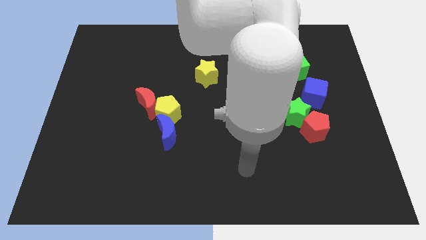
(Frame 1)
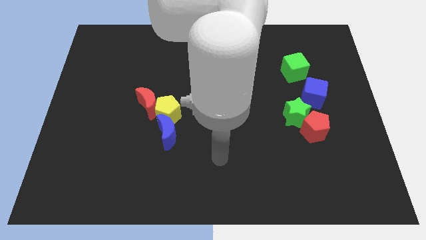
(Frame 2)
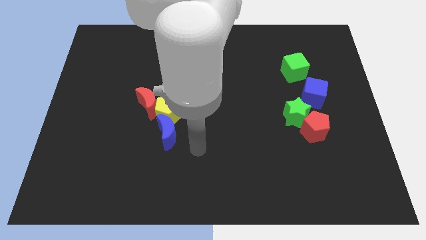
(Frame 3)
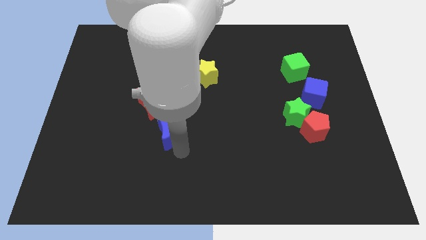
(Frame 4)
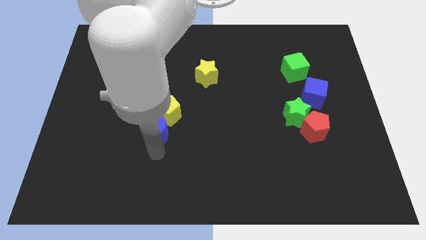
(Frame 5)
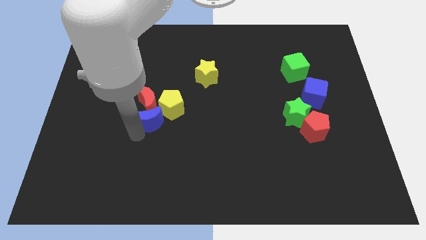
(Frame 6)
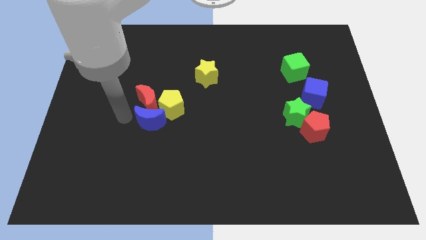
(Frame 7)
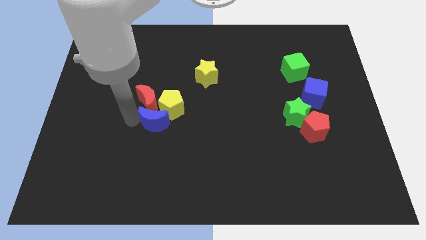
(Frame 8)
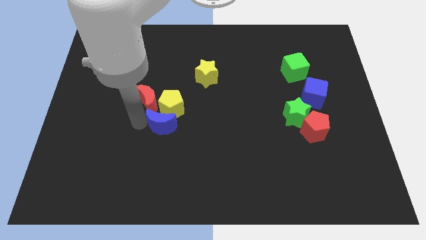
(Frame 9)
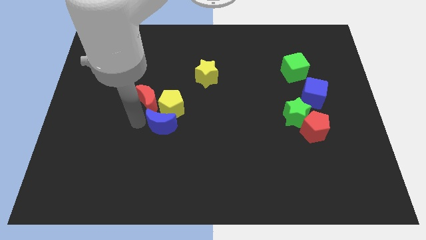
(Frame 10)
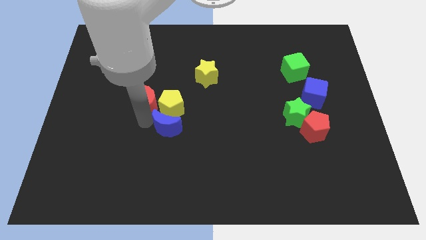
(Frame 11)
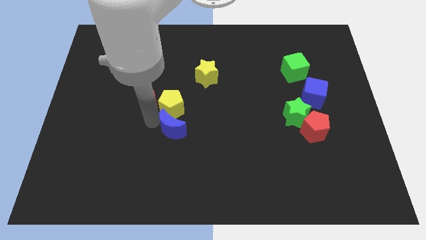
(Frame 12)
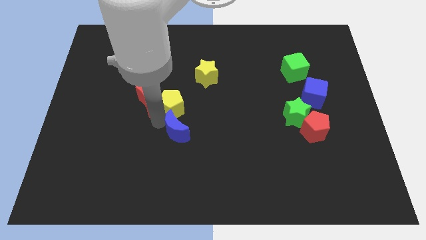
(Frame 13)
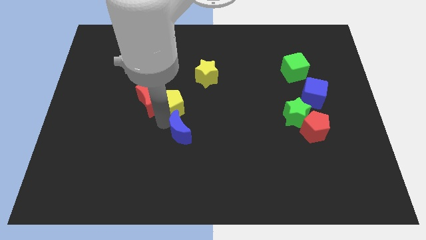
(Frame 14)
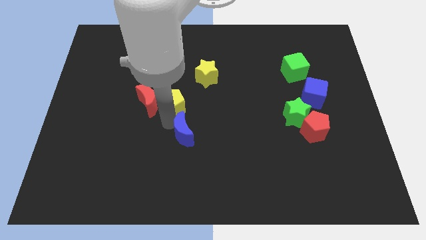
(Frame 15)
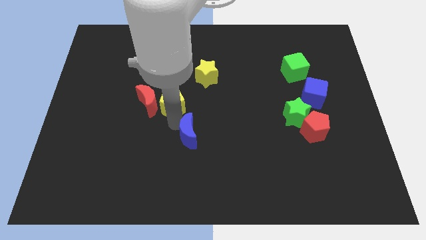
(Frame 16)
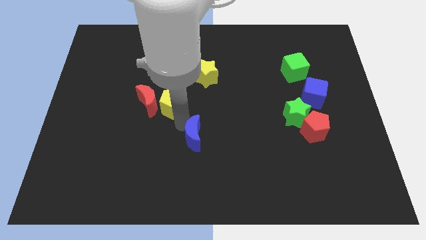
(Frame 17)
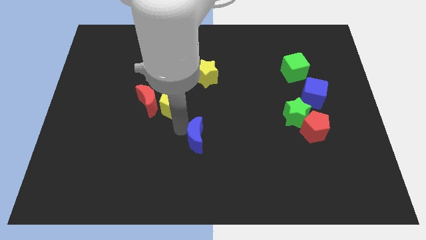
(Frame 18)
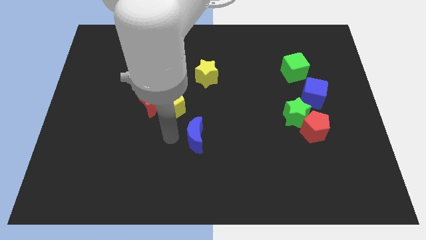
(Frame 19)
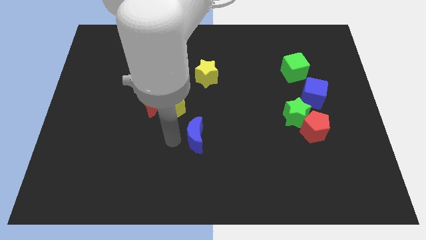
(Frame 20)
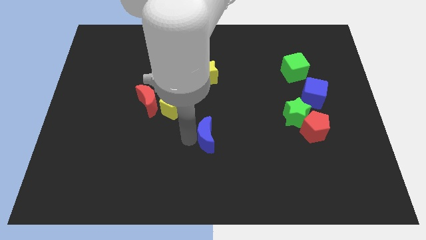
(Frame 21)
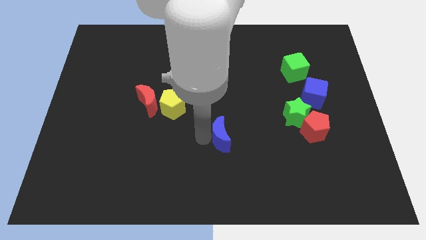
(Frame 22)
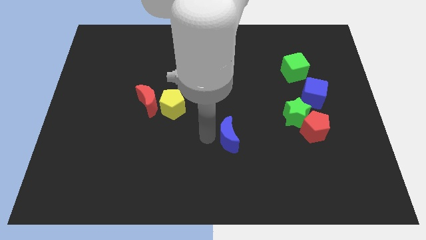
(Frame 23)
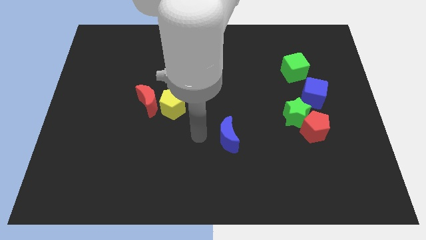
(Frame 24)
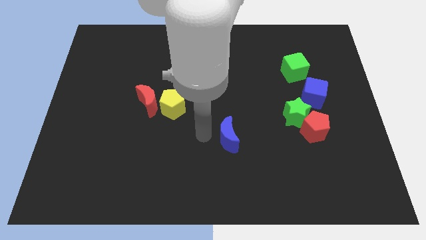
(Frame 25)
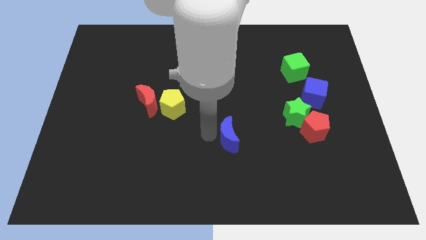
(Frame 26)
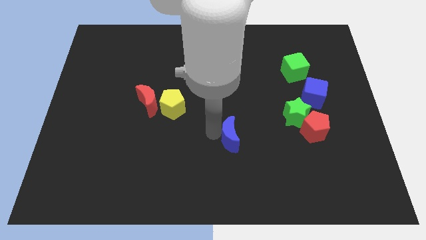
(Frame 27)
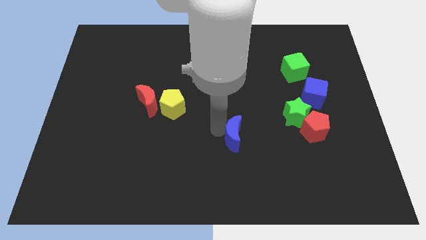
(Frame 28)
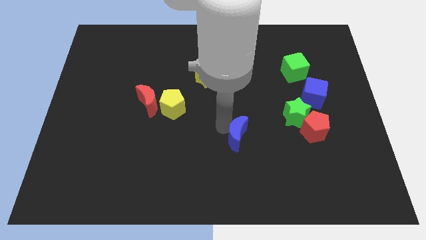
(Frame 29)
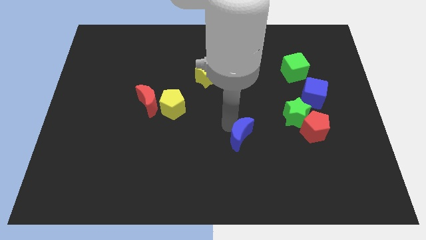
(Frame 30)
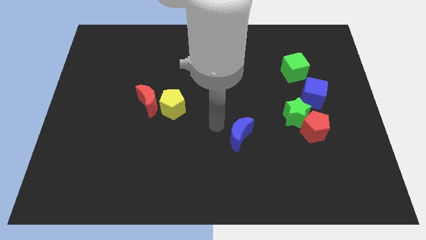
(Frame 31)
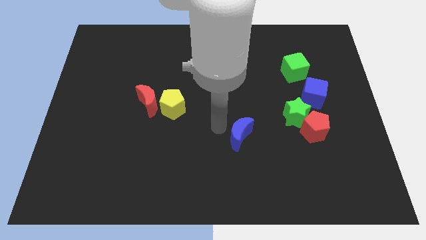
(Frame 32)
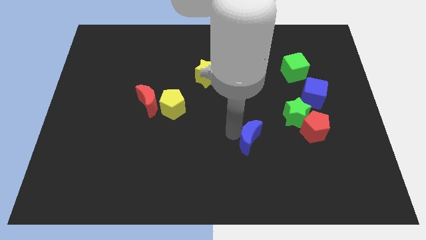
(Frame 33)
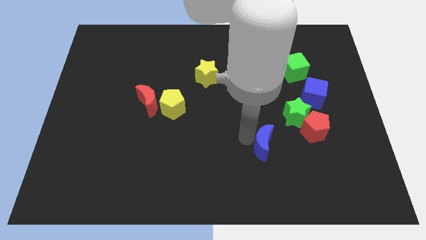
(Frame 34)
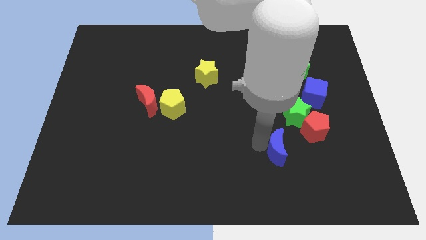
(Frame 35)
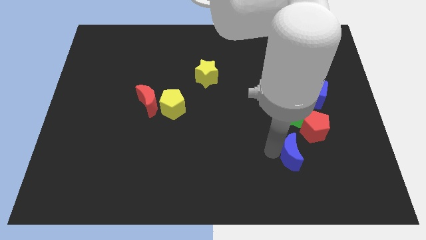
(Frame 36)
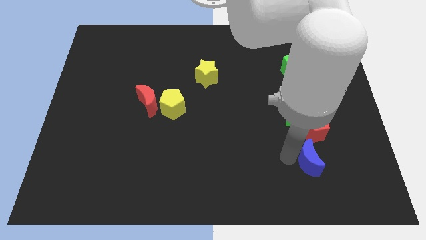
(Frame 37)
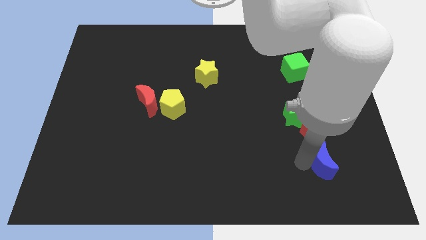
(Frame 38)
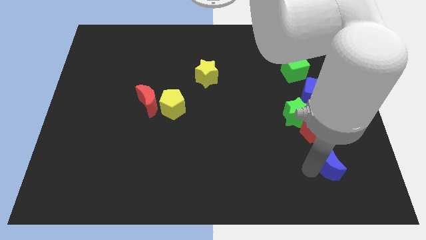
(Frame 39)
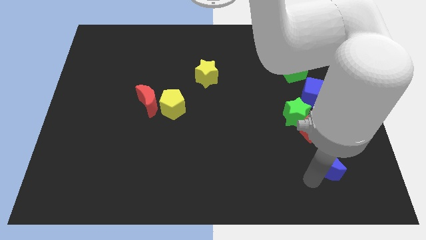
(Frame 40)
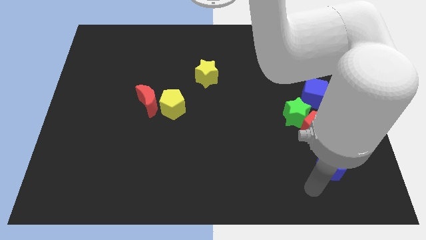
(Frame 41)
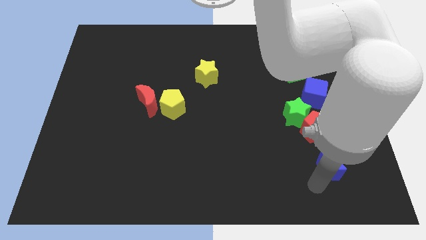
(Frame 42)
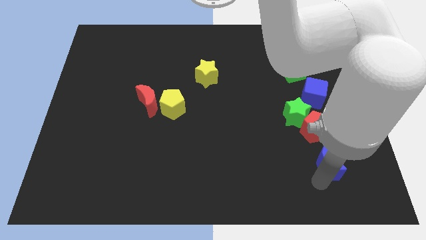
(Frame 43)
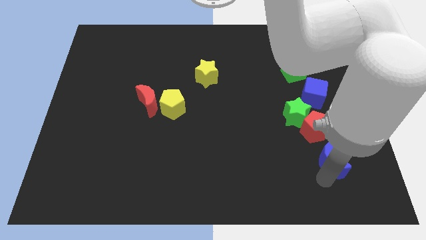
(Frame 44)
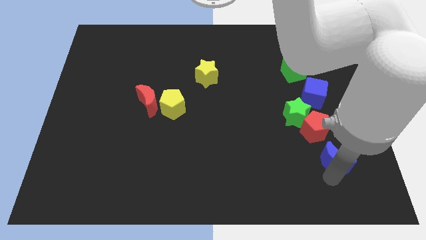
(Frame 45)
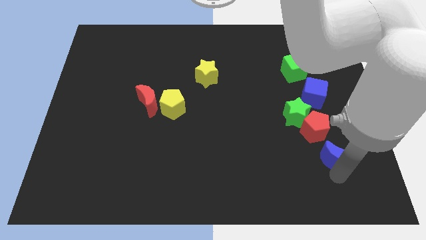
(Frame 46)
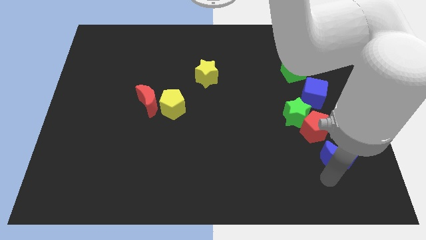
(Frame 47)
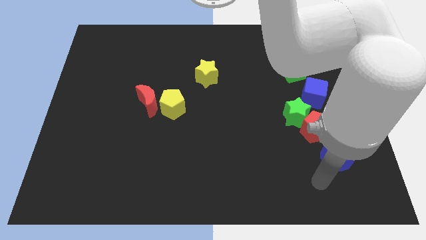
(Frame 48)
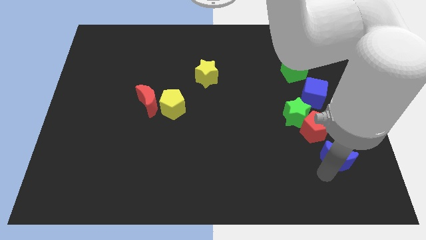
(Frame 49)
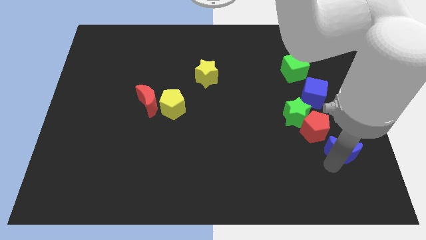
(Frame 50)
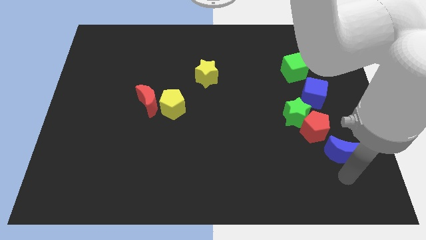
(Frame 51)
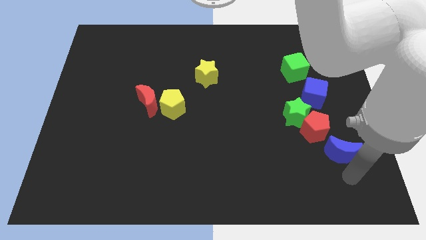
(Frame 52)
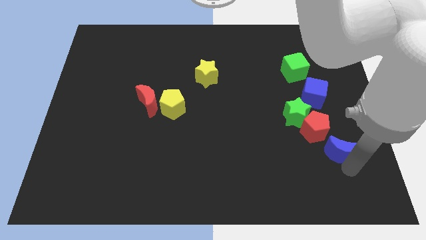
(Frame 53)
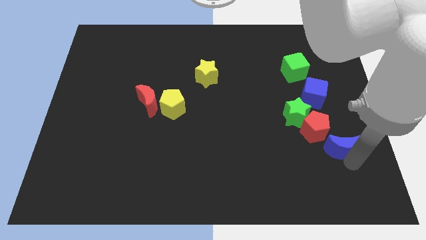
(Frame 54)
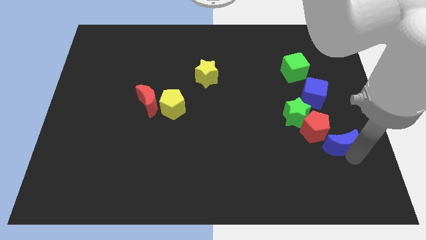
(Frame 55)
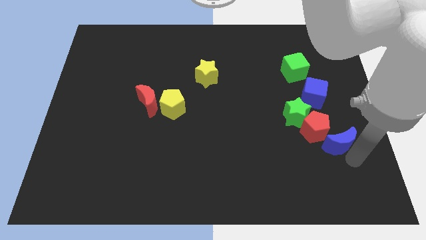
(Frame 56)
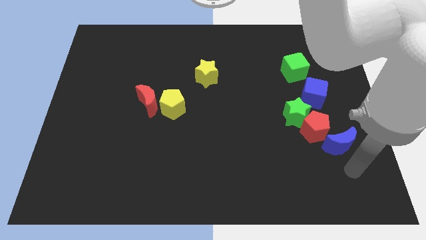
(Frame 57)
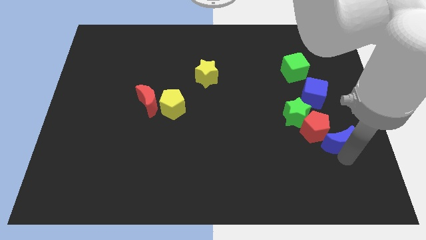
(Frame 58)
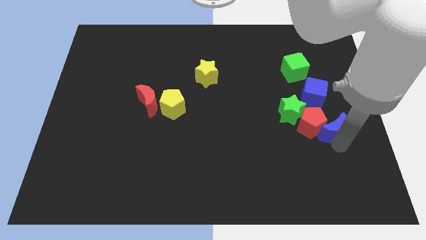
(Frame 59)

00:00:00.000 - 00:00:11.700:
slide the blue moon to the top right of the red pentagon
